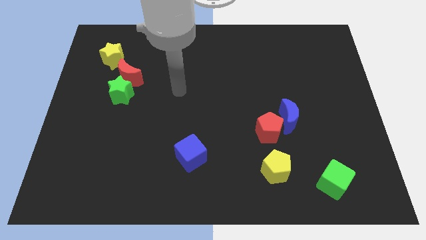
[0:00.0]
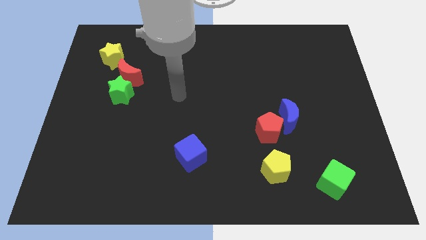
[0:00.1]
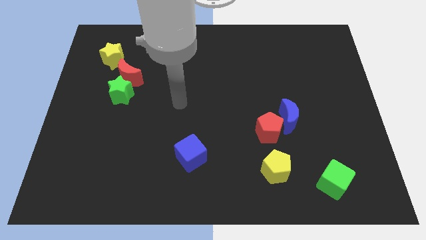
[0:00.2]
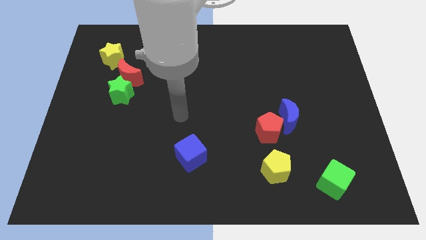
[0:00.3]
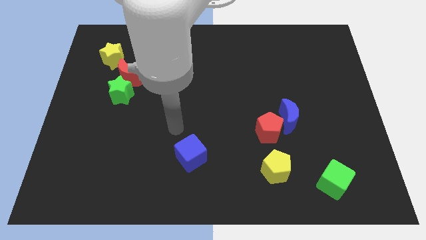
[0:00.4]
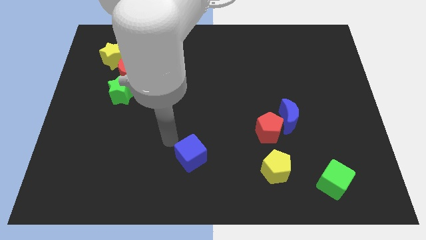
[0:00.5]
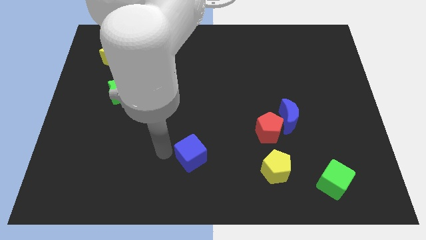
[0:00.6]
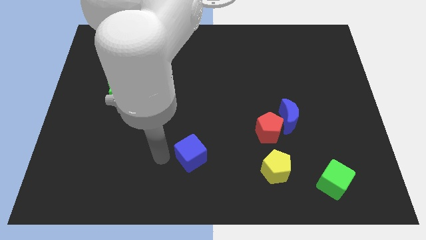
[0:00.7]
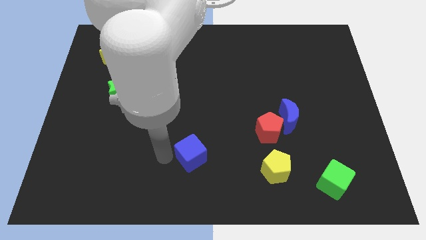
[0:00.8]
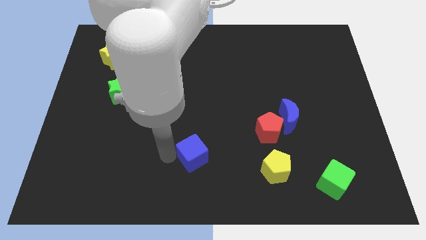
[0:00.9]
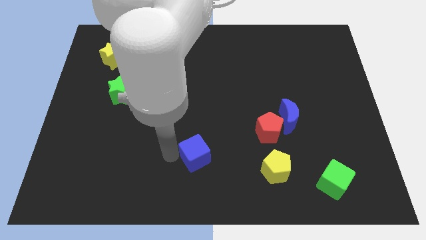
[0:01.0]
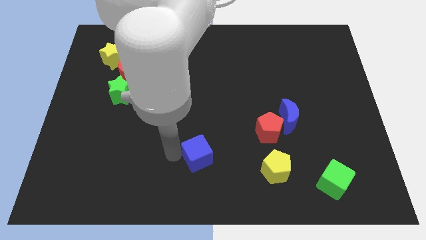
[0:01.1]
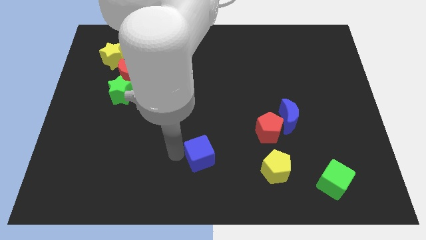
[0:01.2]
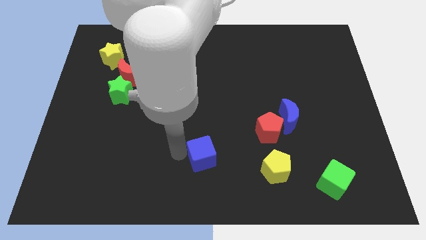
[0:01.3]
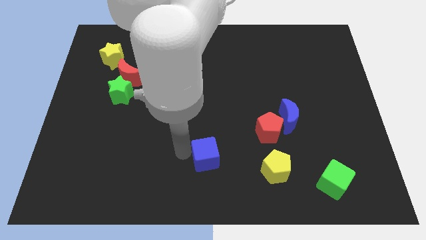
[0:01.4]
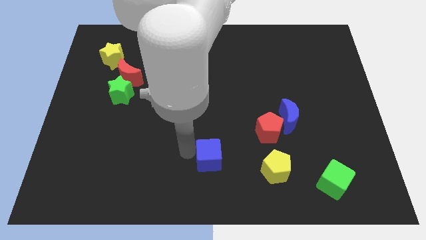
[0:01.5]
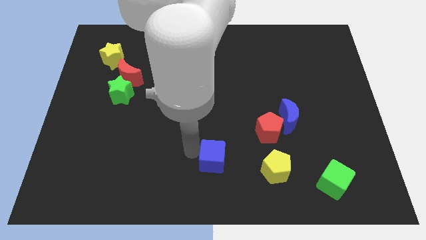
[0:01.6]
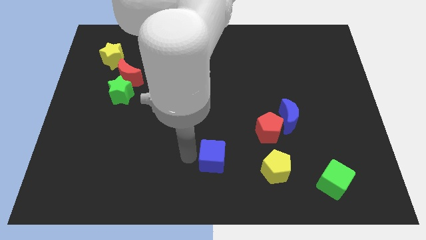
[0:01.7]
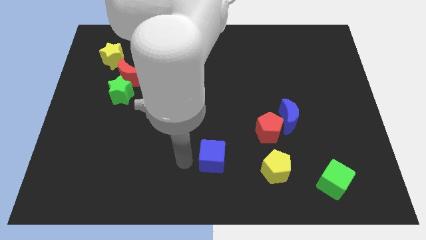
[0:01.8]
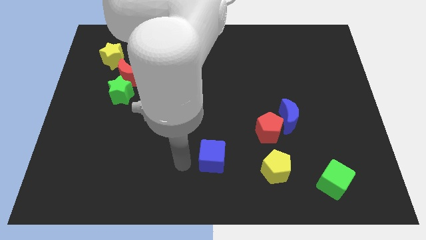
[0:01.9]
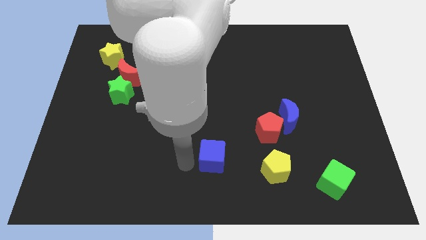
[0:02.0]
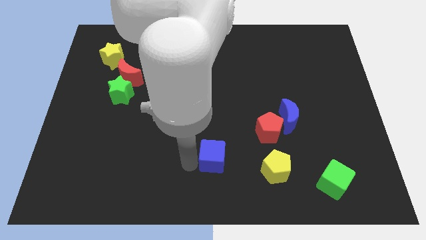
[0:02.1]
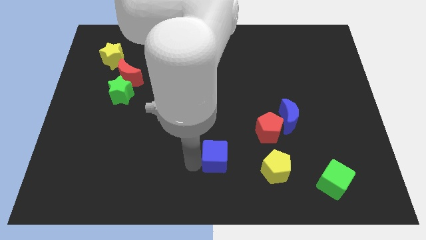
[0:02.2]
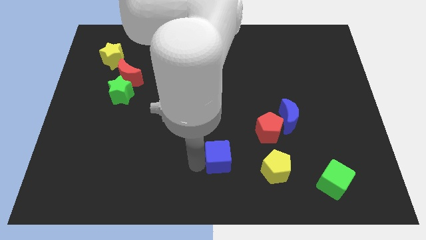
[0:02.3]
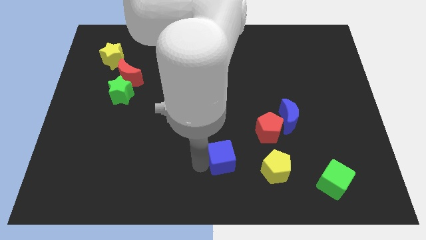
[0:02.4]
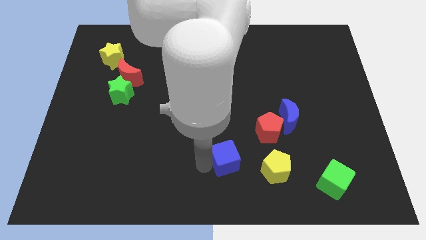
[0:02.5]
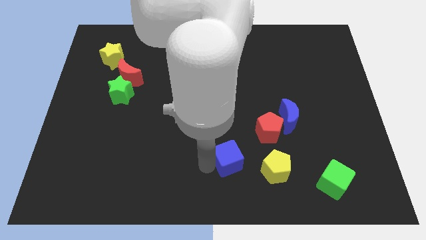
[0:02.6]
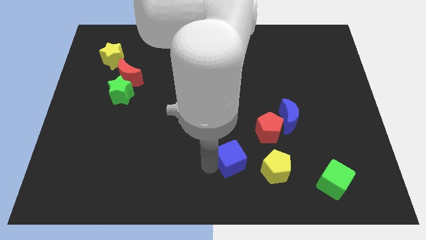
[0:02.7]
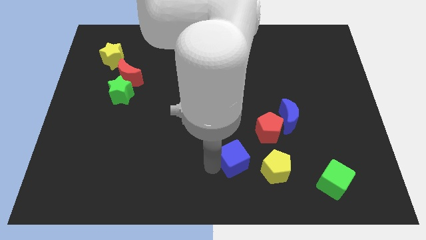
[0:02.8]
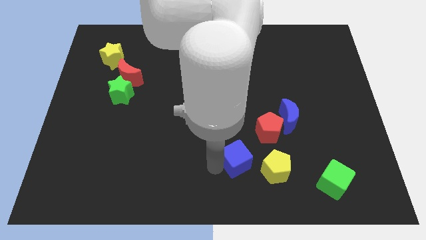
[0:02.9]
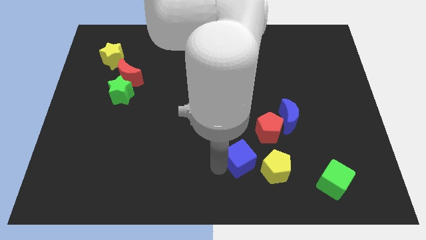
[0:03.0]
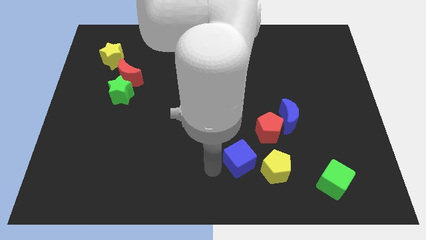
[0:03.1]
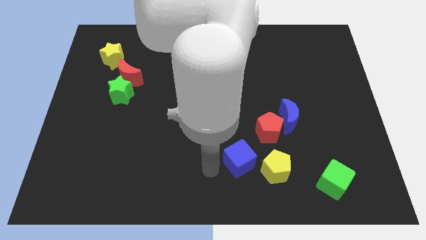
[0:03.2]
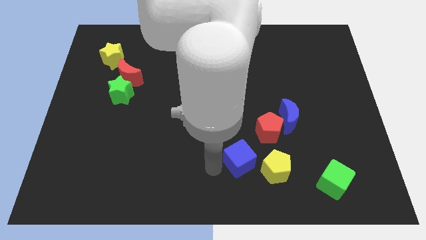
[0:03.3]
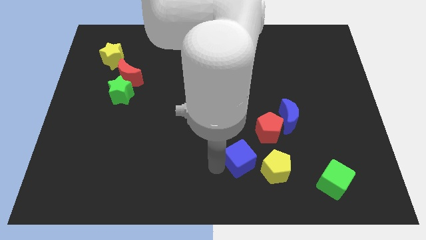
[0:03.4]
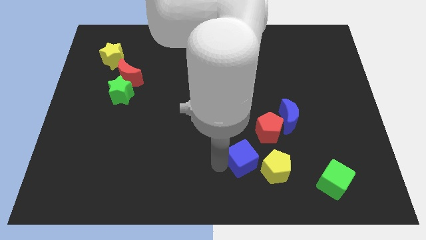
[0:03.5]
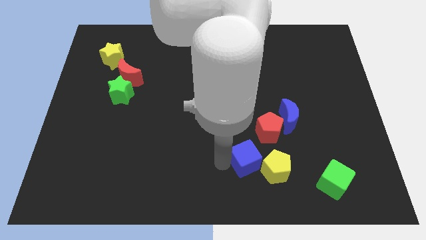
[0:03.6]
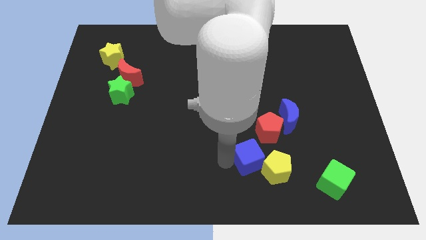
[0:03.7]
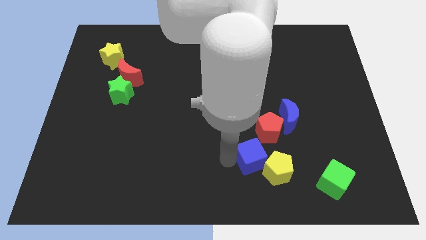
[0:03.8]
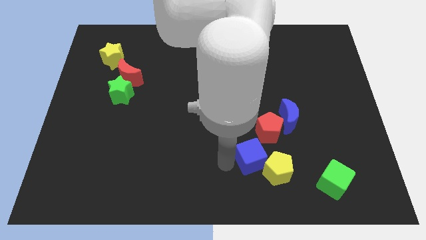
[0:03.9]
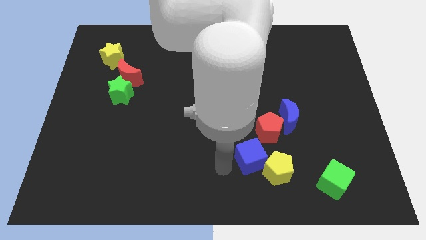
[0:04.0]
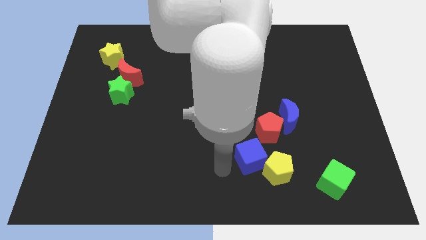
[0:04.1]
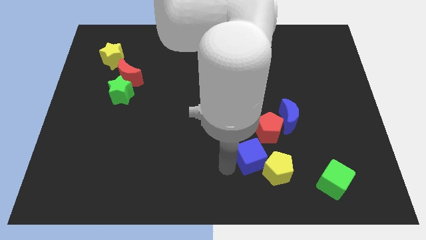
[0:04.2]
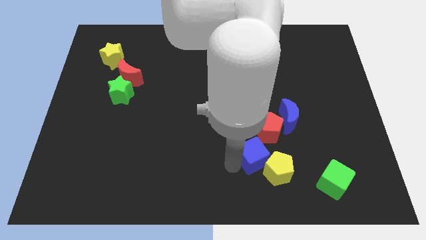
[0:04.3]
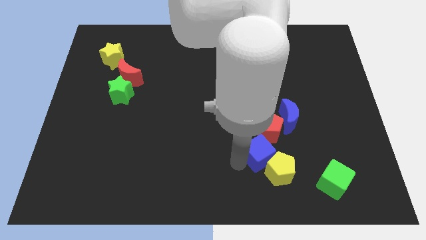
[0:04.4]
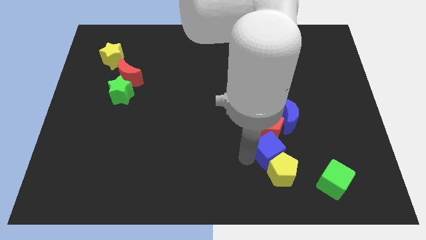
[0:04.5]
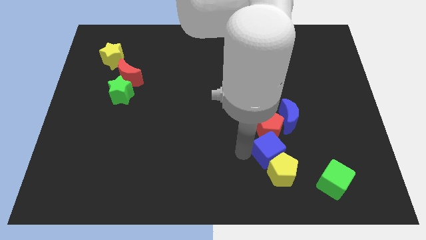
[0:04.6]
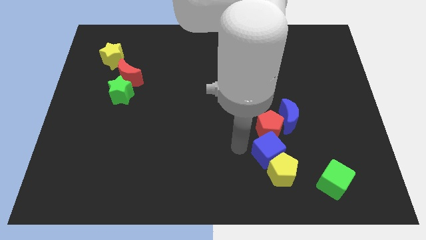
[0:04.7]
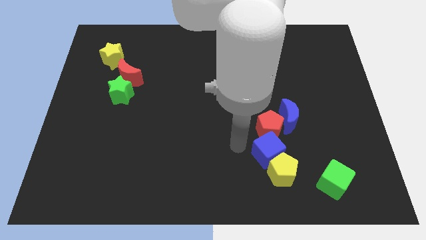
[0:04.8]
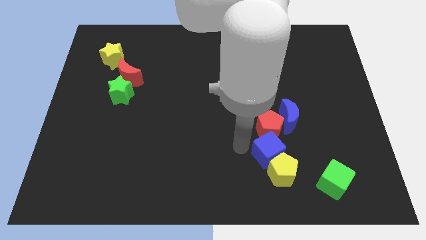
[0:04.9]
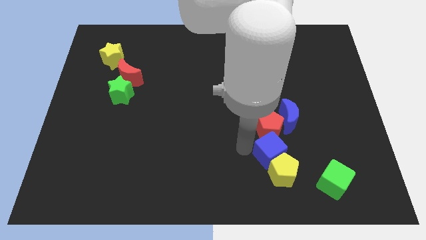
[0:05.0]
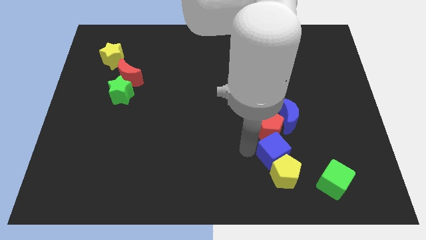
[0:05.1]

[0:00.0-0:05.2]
put the blue cube to the bottom of the blue moon

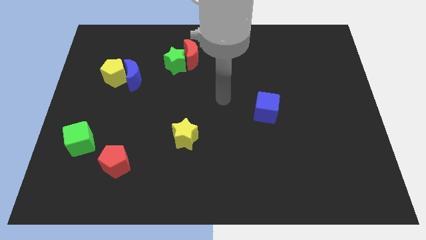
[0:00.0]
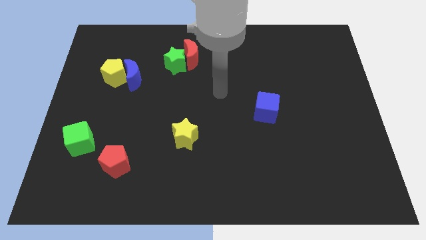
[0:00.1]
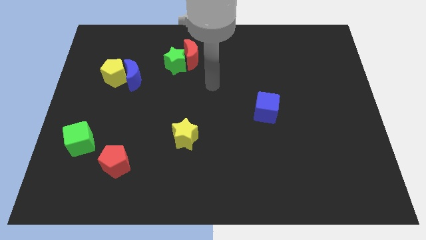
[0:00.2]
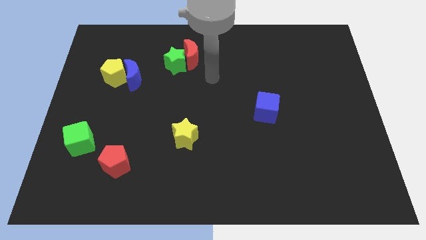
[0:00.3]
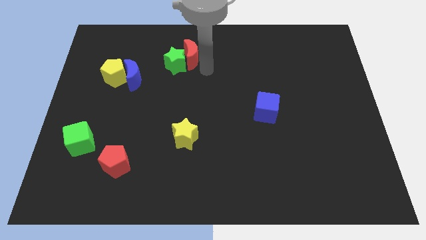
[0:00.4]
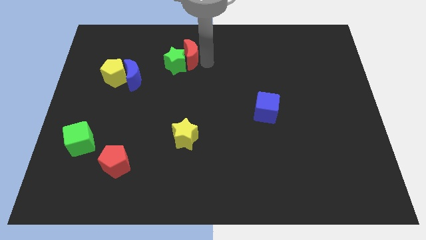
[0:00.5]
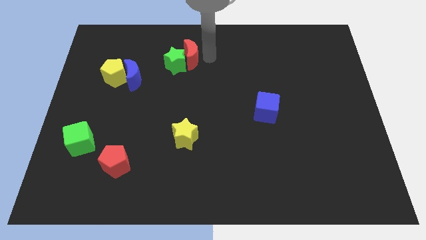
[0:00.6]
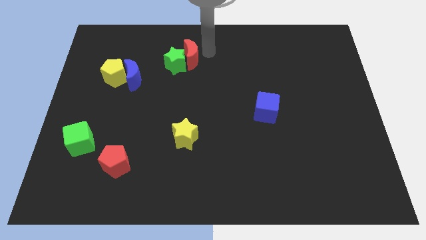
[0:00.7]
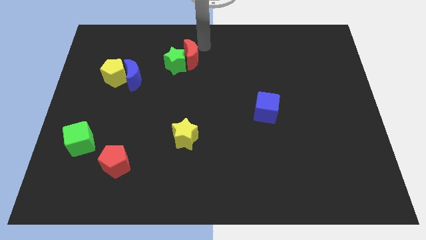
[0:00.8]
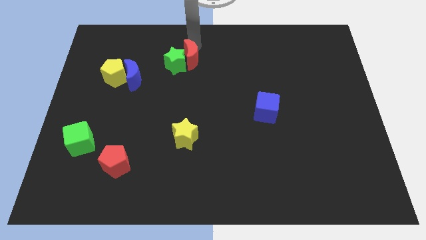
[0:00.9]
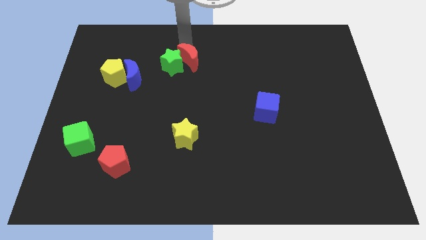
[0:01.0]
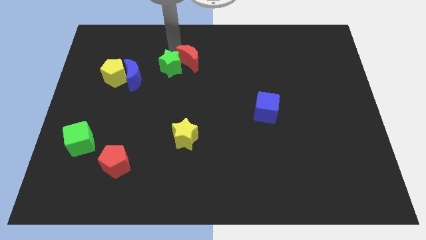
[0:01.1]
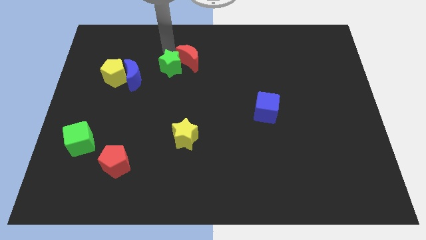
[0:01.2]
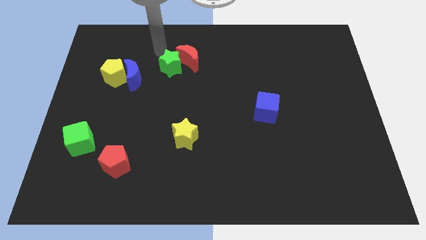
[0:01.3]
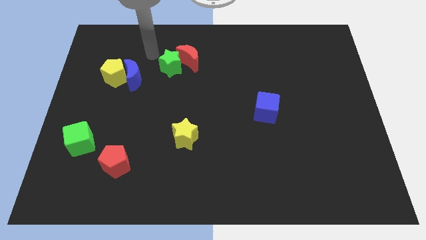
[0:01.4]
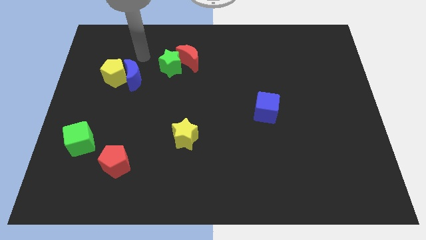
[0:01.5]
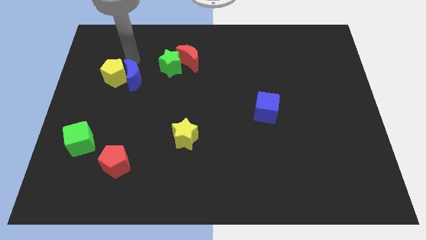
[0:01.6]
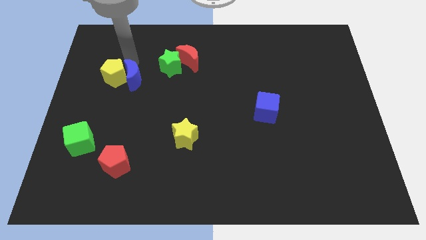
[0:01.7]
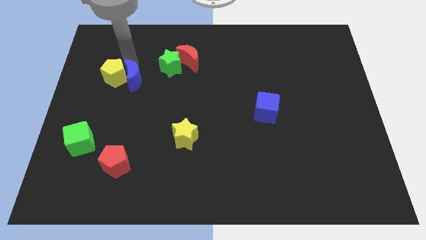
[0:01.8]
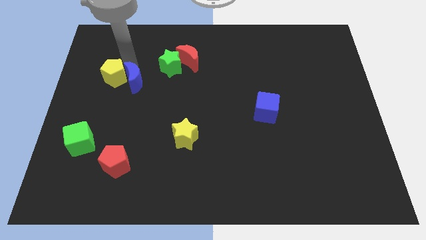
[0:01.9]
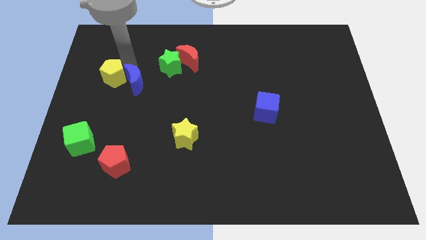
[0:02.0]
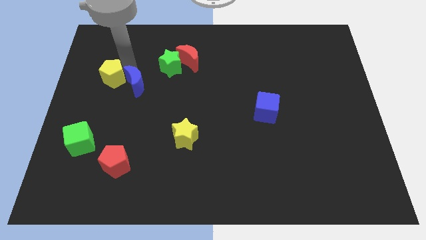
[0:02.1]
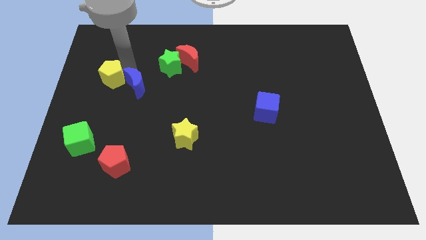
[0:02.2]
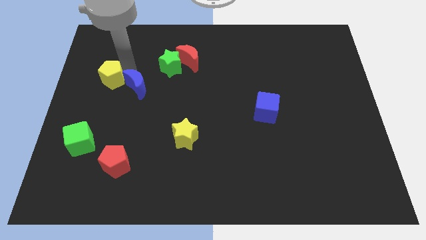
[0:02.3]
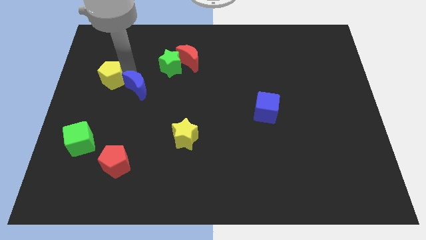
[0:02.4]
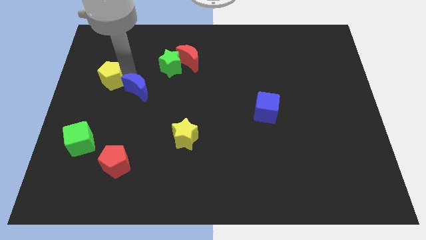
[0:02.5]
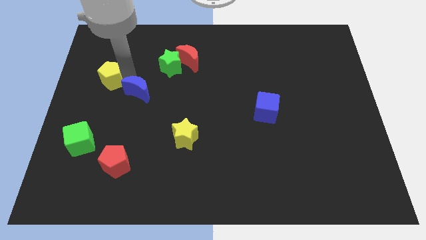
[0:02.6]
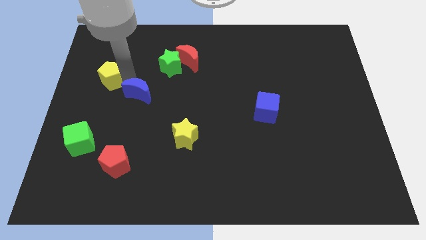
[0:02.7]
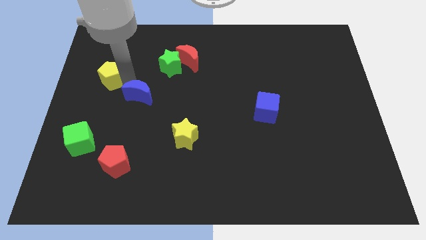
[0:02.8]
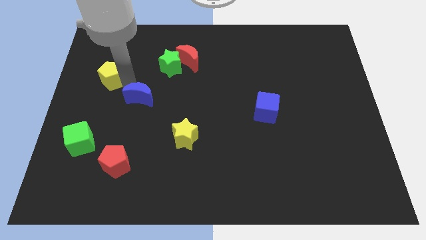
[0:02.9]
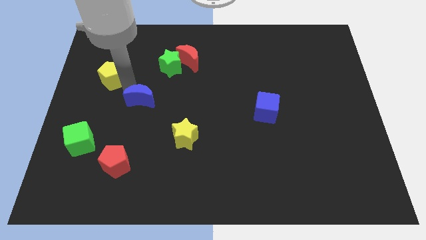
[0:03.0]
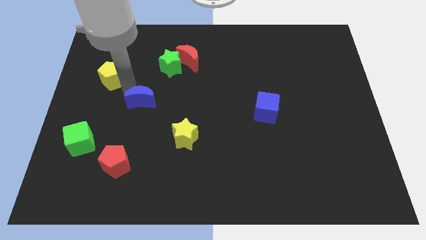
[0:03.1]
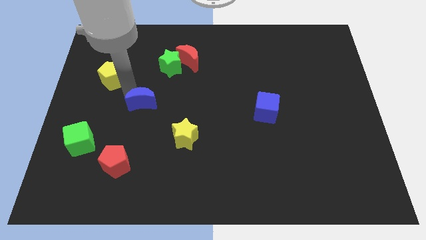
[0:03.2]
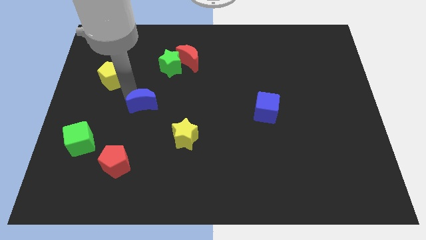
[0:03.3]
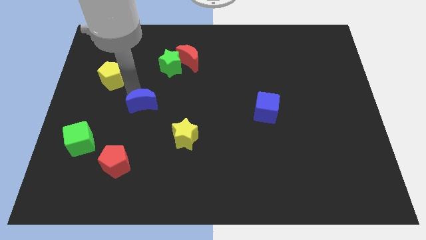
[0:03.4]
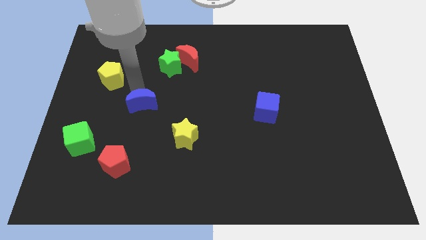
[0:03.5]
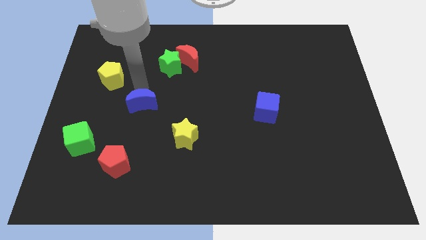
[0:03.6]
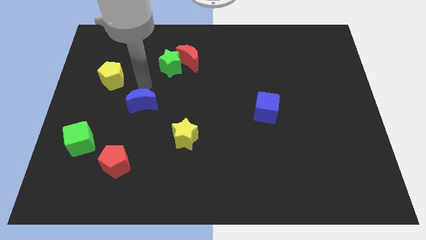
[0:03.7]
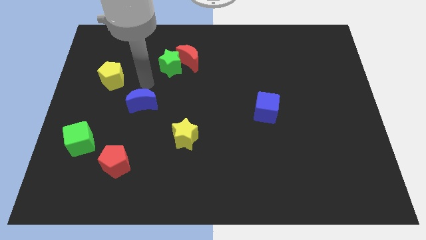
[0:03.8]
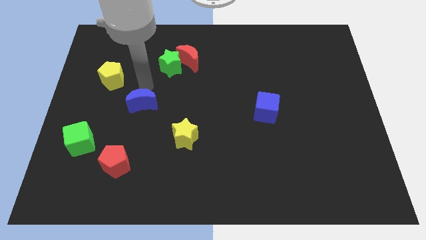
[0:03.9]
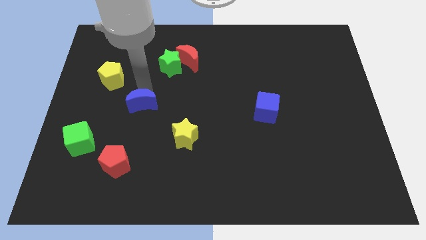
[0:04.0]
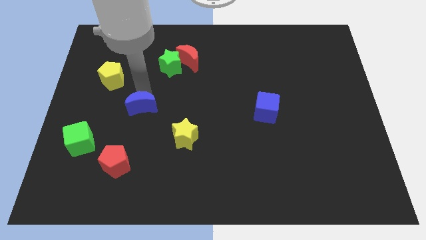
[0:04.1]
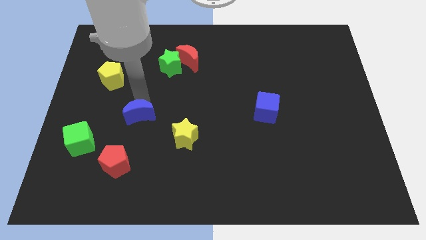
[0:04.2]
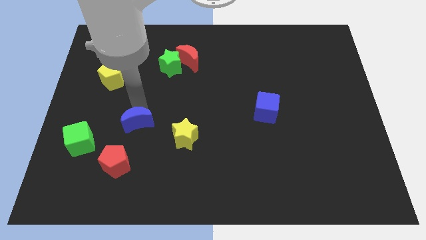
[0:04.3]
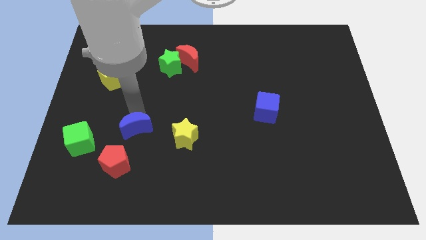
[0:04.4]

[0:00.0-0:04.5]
slide the blue moon diagonally up and to the right of the red pentagon
